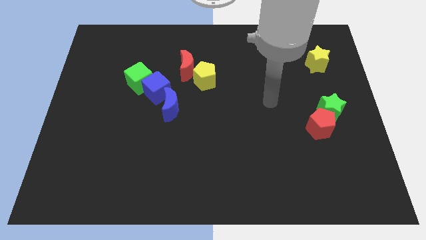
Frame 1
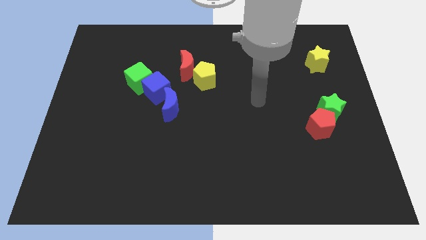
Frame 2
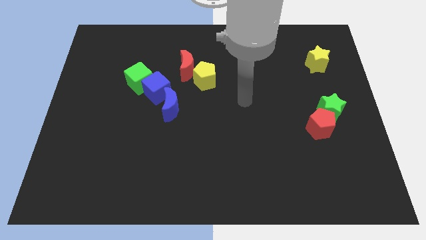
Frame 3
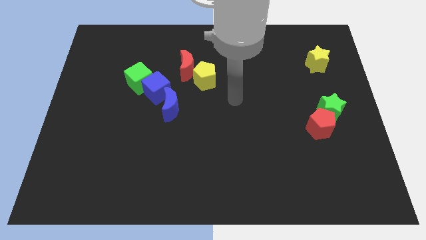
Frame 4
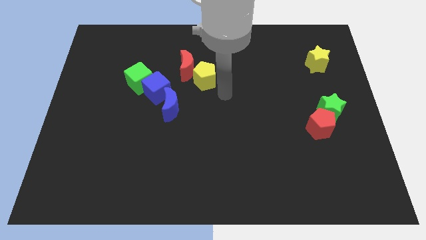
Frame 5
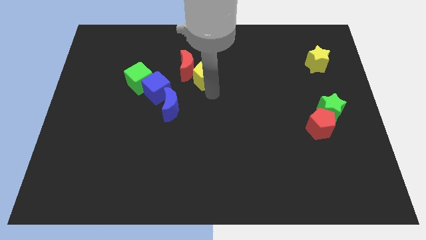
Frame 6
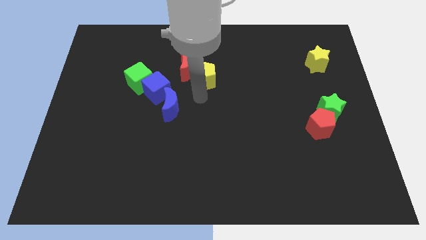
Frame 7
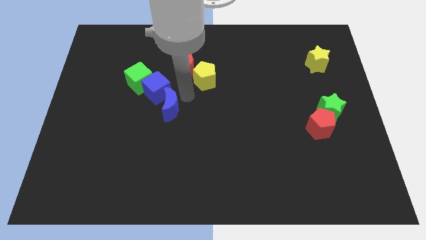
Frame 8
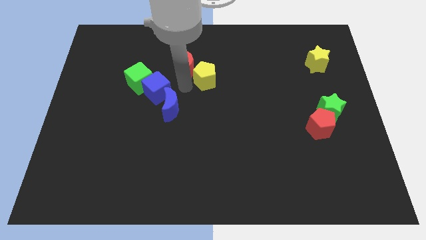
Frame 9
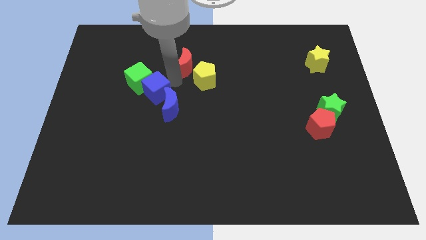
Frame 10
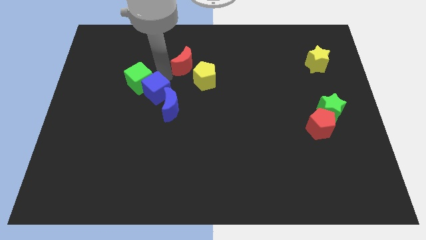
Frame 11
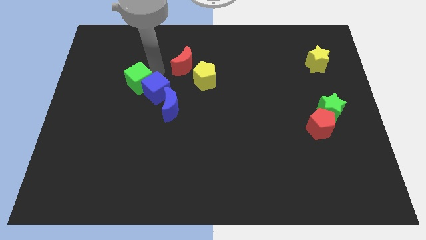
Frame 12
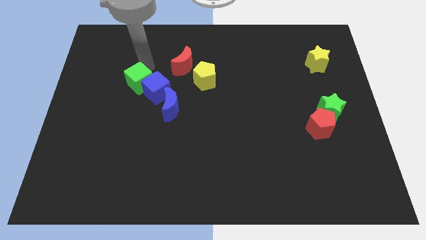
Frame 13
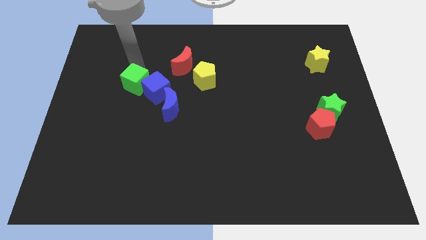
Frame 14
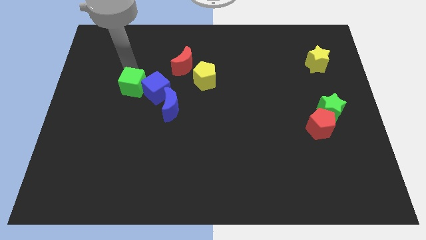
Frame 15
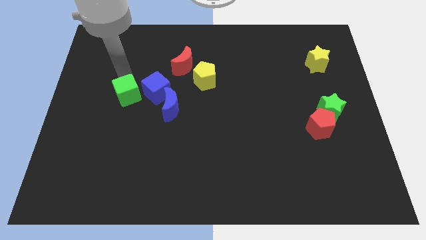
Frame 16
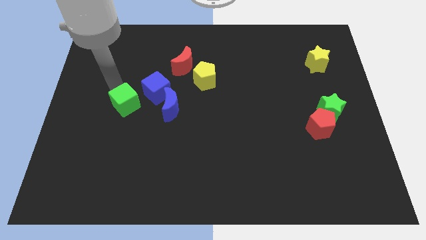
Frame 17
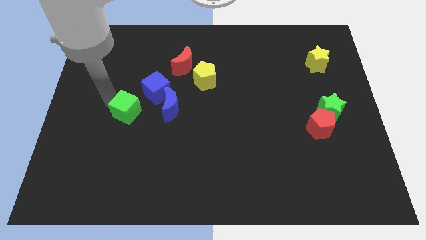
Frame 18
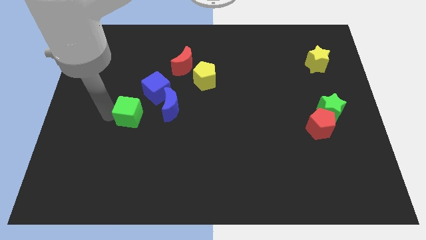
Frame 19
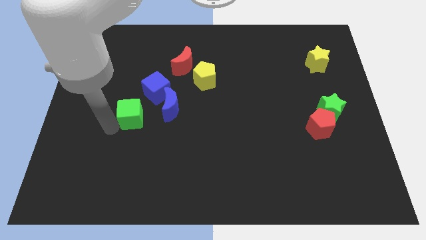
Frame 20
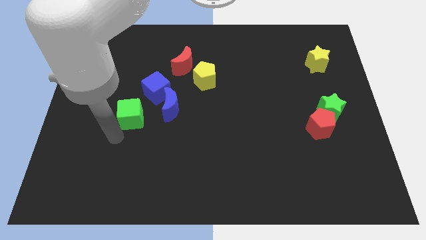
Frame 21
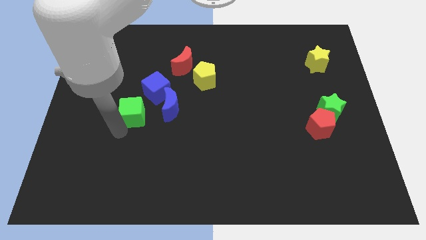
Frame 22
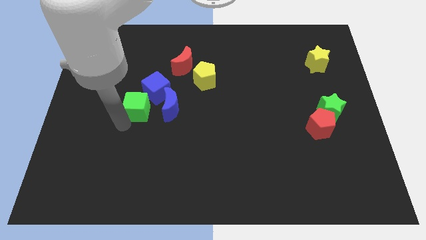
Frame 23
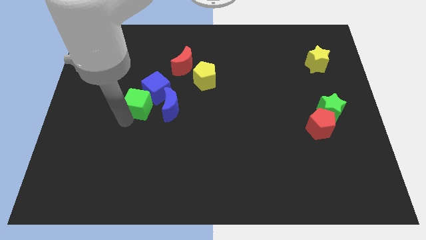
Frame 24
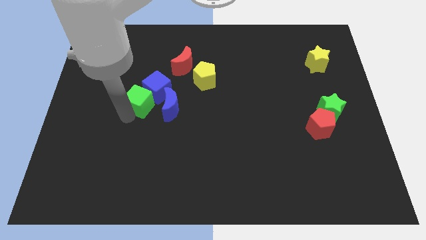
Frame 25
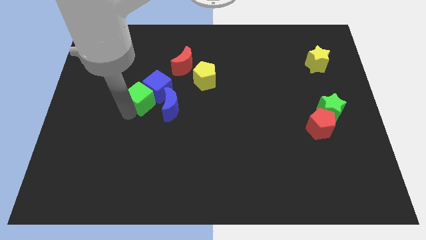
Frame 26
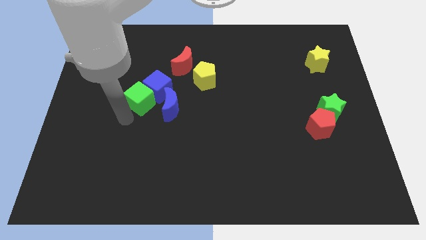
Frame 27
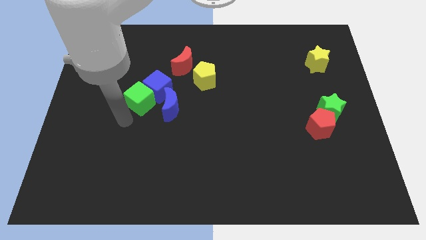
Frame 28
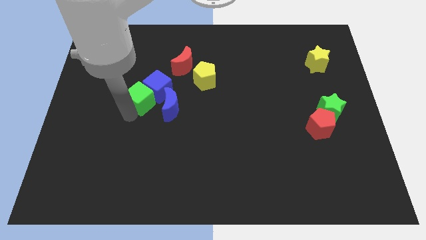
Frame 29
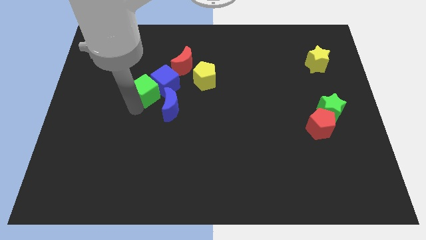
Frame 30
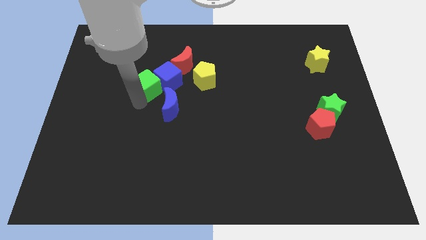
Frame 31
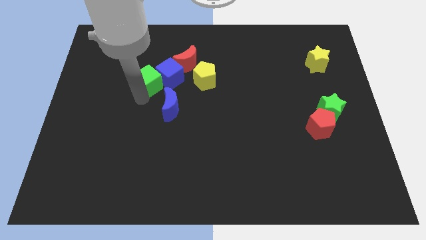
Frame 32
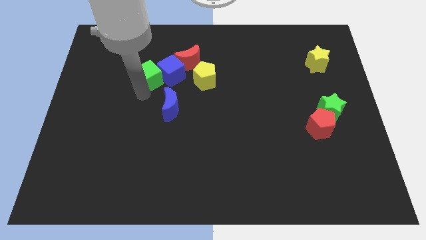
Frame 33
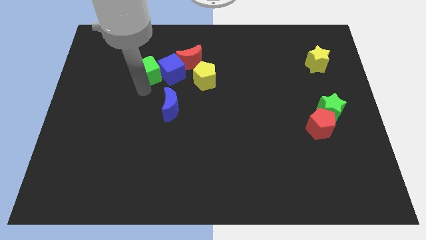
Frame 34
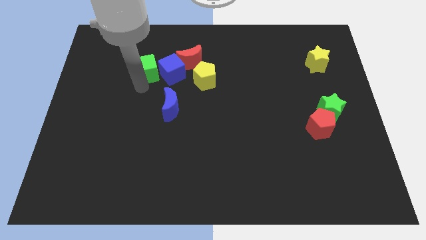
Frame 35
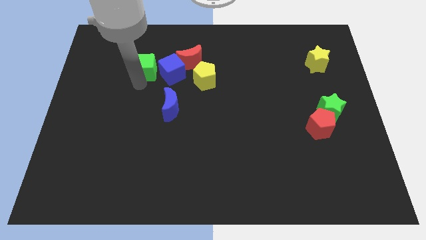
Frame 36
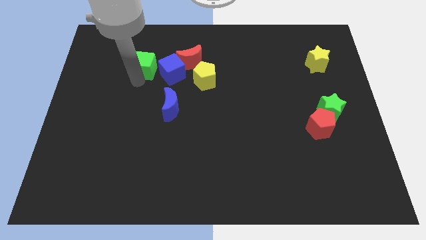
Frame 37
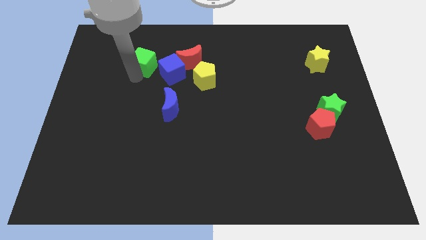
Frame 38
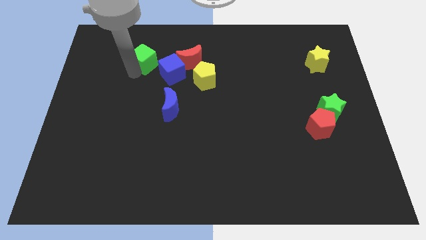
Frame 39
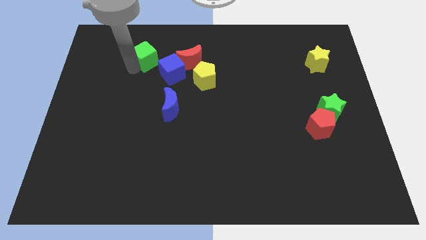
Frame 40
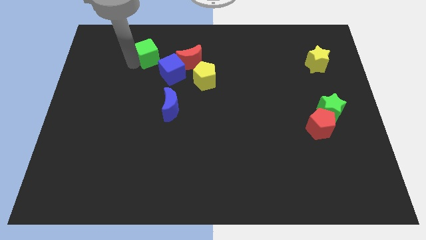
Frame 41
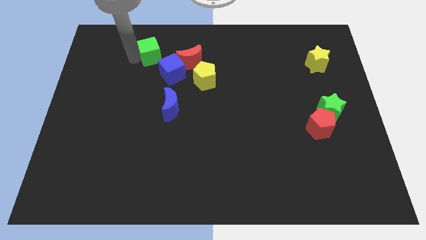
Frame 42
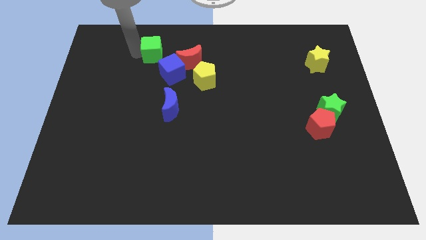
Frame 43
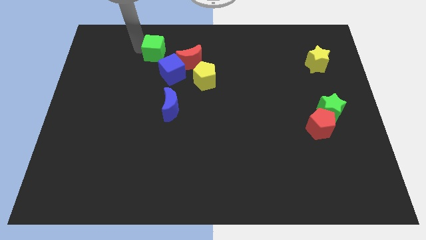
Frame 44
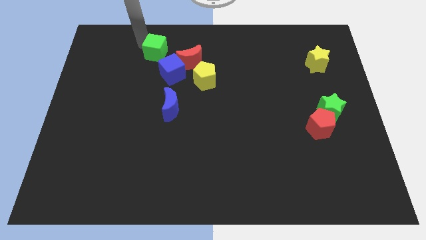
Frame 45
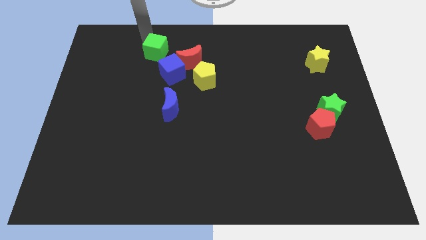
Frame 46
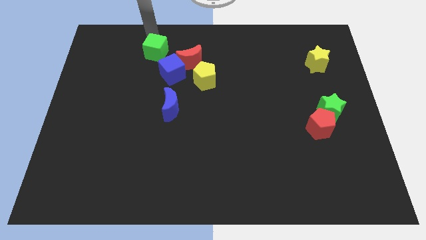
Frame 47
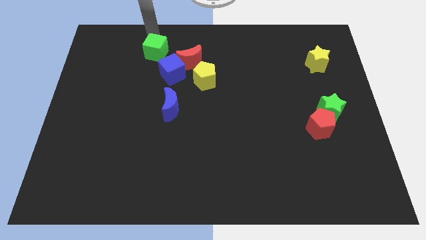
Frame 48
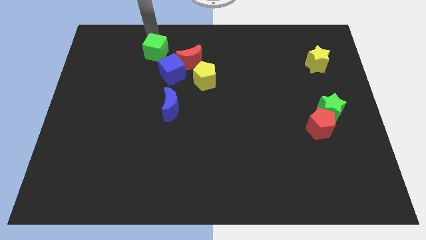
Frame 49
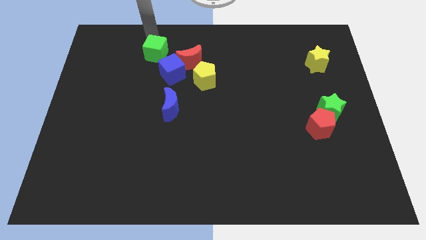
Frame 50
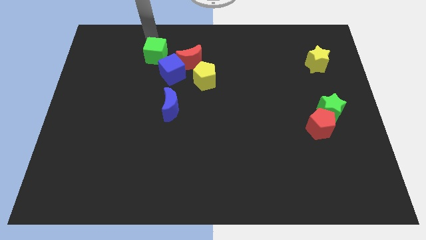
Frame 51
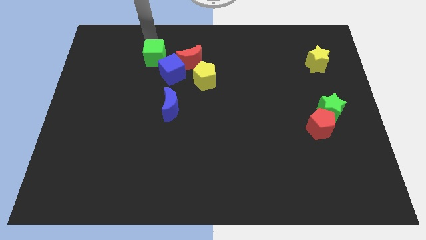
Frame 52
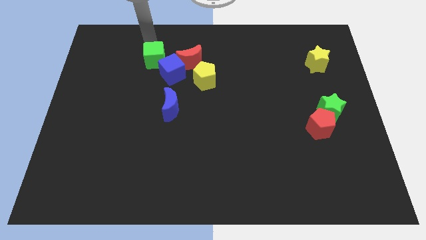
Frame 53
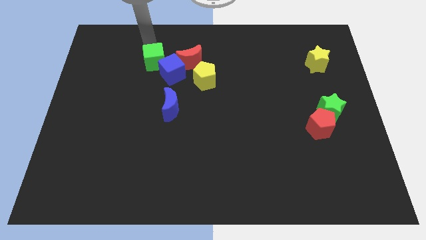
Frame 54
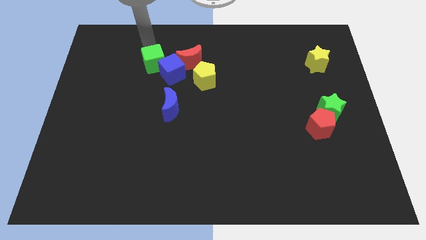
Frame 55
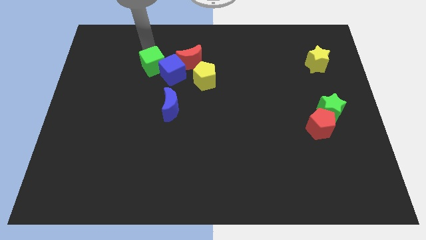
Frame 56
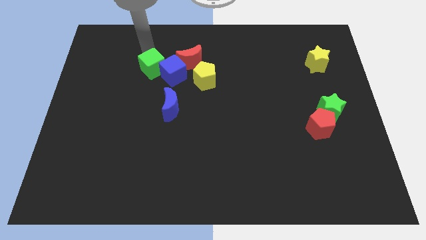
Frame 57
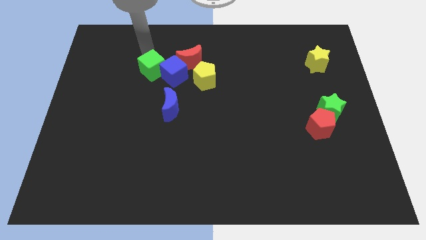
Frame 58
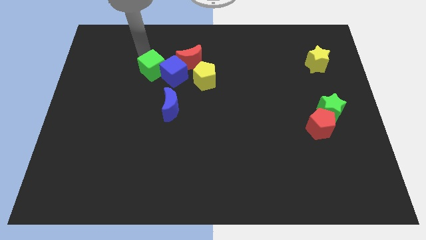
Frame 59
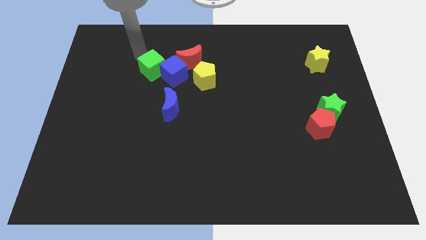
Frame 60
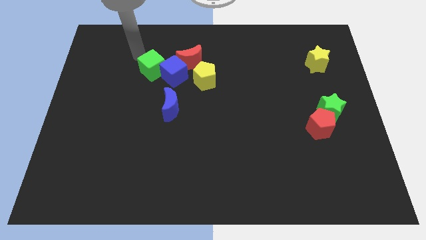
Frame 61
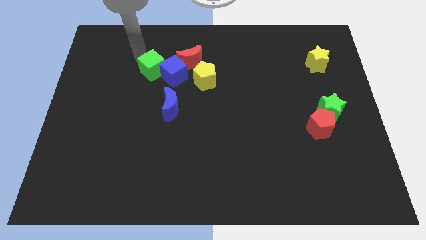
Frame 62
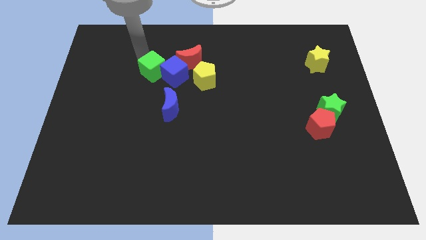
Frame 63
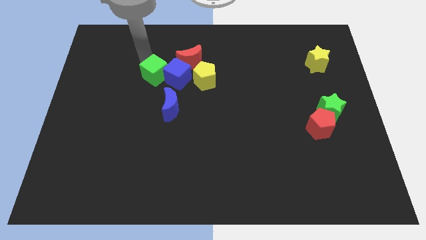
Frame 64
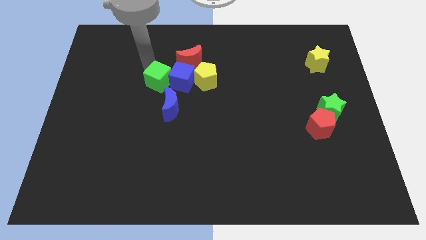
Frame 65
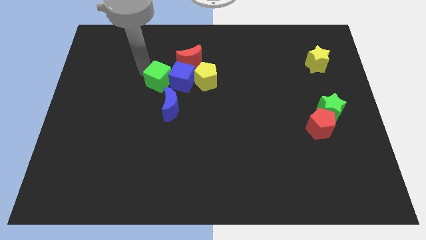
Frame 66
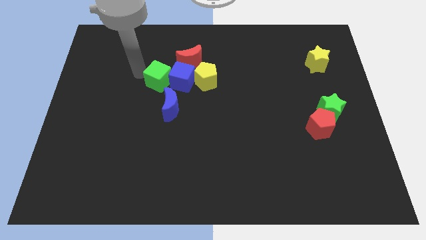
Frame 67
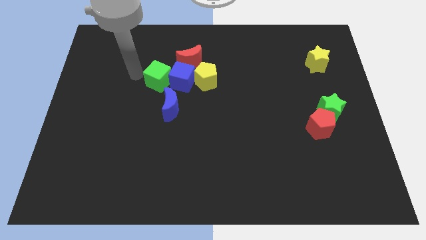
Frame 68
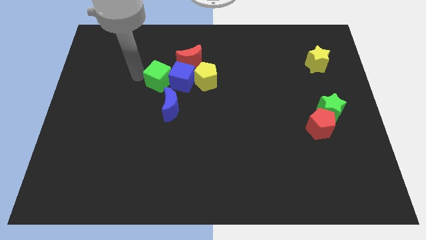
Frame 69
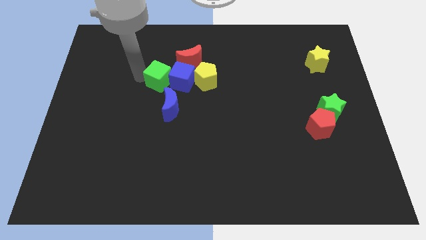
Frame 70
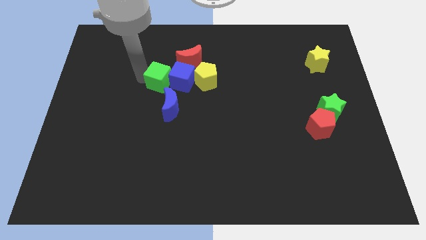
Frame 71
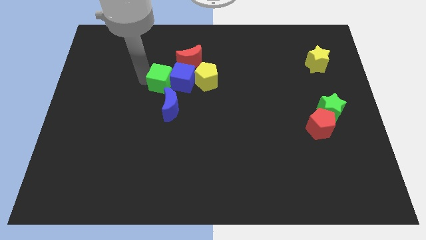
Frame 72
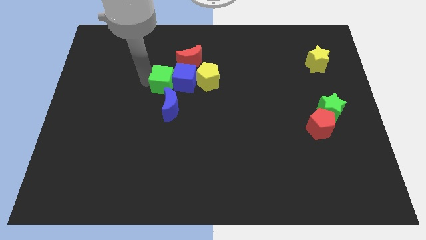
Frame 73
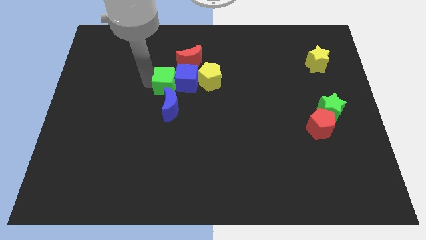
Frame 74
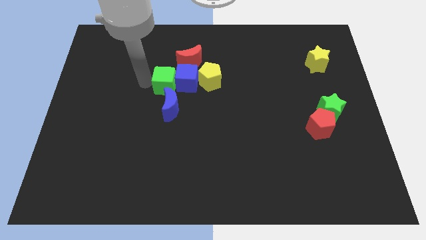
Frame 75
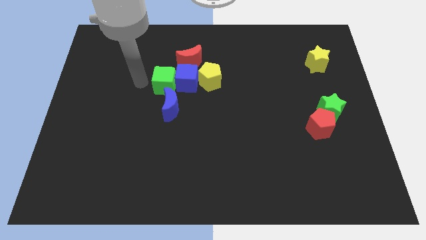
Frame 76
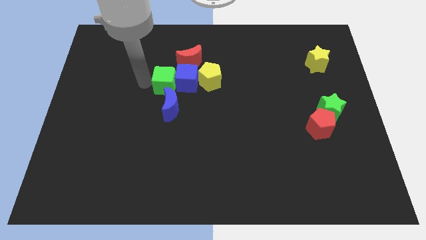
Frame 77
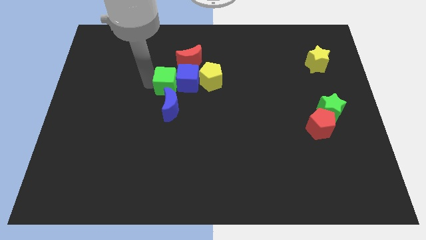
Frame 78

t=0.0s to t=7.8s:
put the green cube to the center

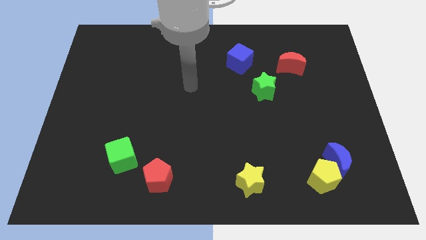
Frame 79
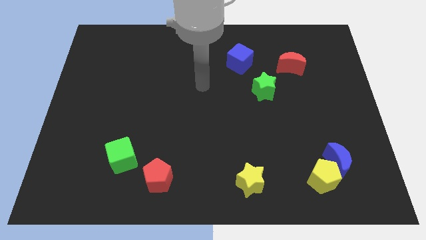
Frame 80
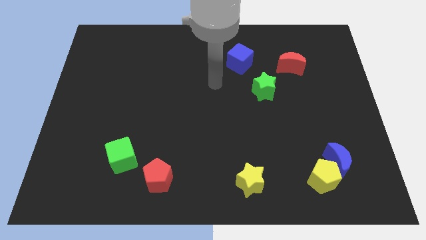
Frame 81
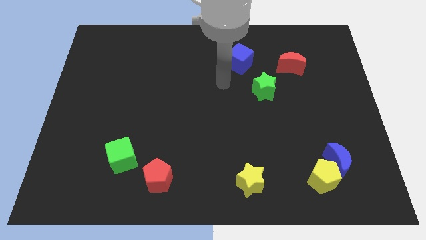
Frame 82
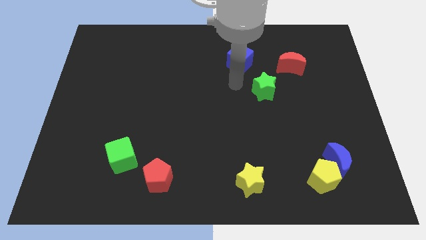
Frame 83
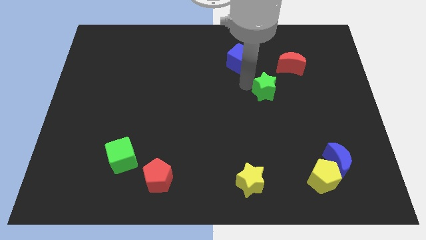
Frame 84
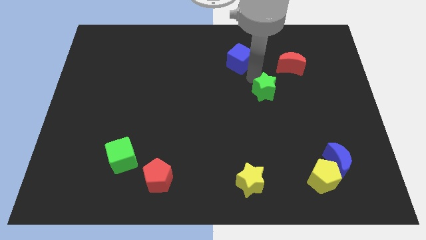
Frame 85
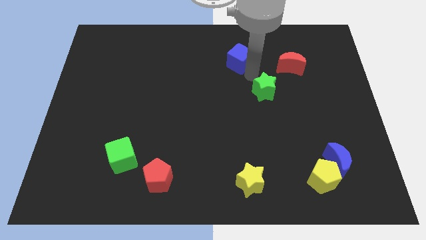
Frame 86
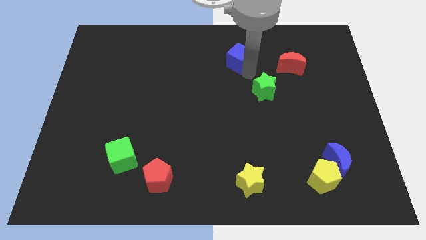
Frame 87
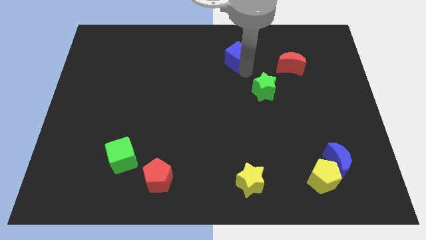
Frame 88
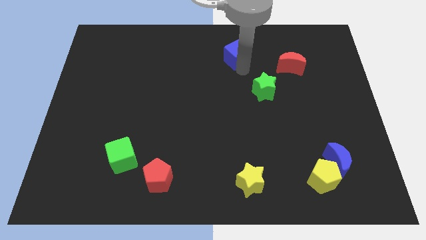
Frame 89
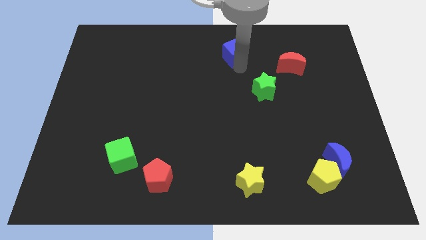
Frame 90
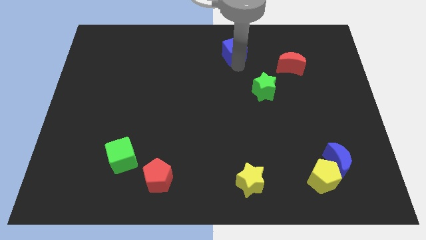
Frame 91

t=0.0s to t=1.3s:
push the blue cube to the top side
